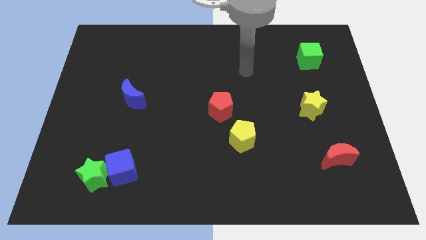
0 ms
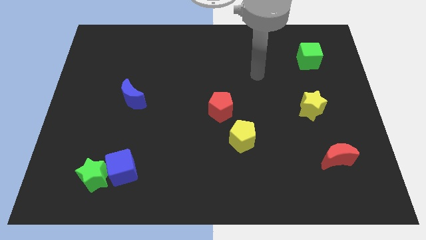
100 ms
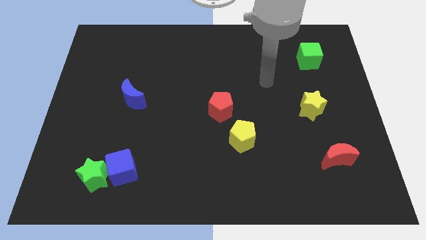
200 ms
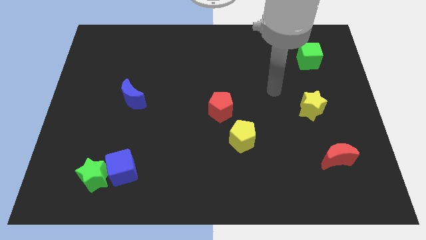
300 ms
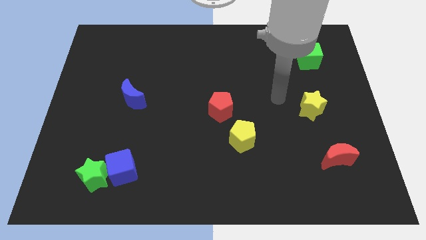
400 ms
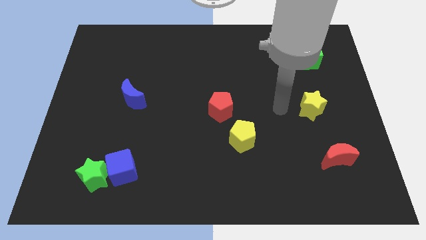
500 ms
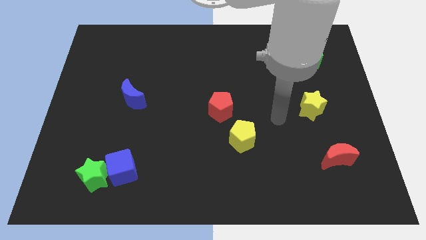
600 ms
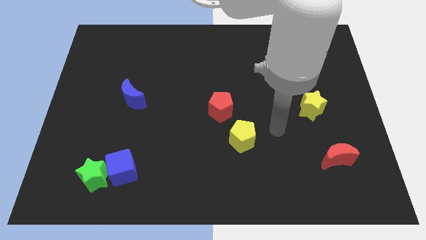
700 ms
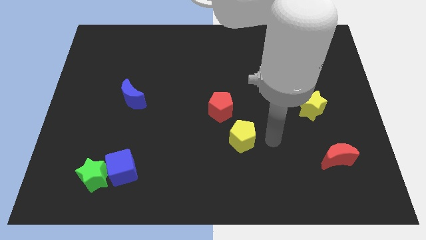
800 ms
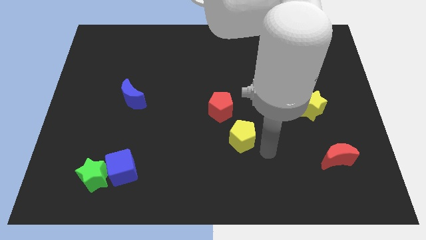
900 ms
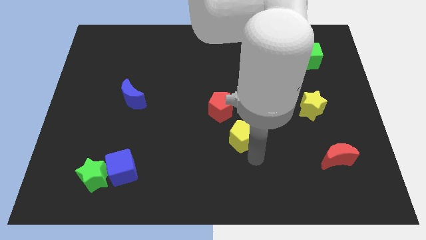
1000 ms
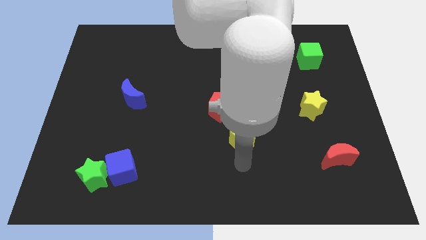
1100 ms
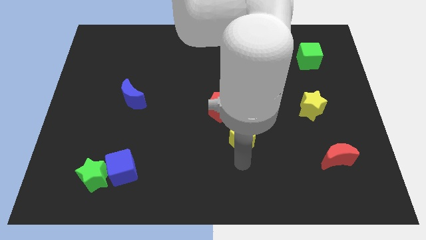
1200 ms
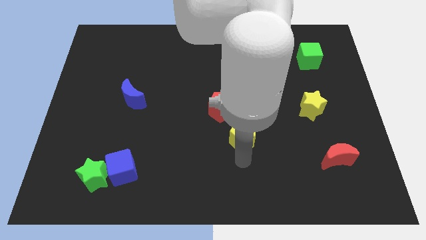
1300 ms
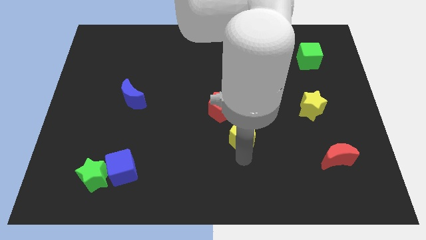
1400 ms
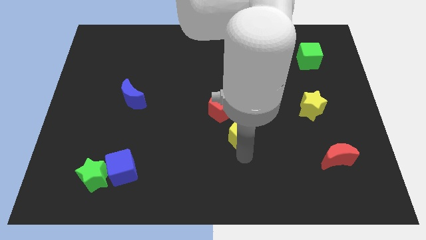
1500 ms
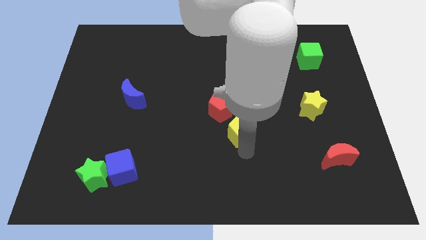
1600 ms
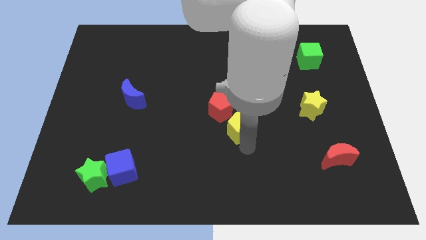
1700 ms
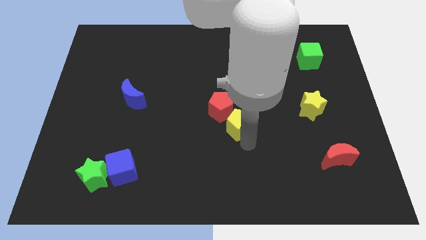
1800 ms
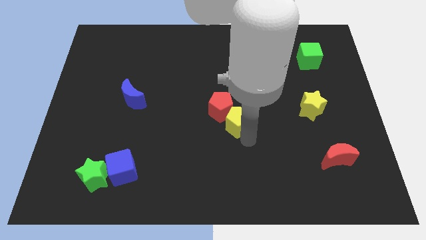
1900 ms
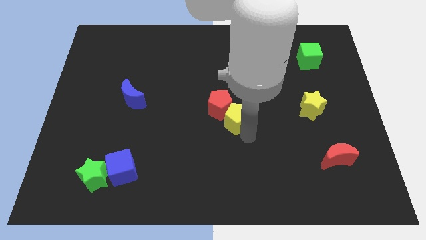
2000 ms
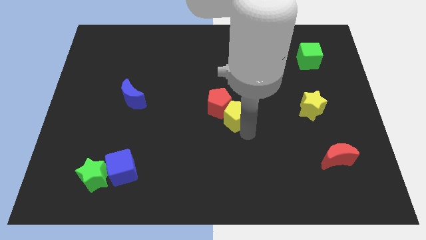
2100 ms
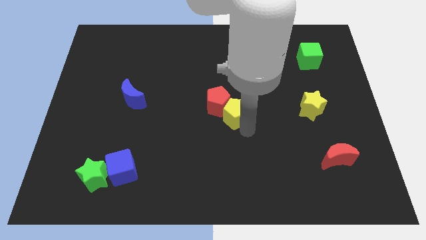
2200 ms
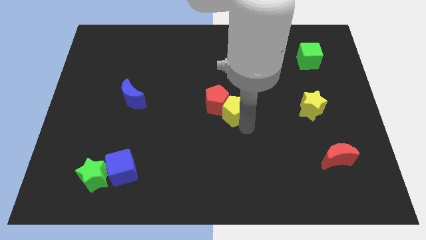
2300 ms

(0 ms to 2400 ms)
move the yellow pentagon upwards a little bit

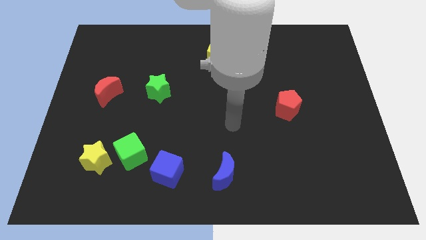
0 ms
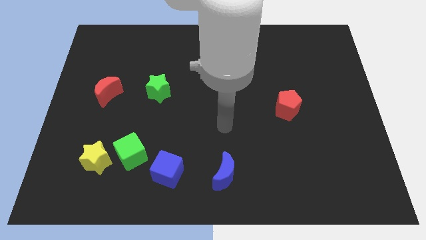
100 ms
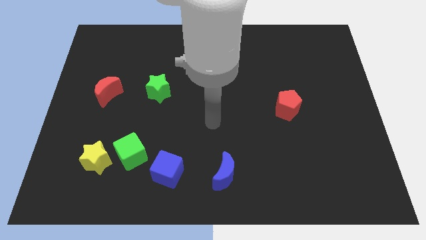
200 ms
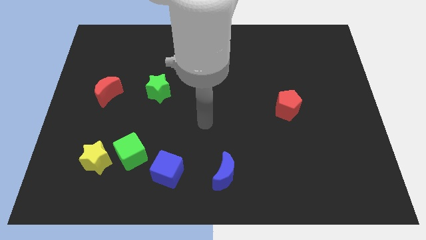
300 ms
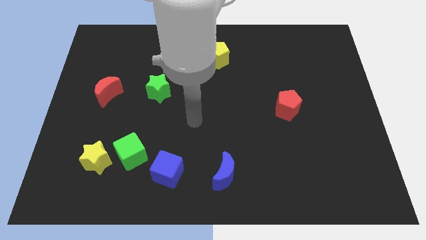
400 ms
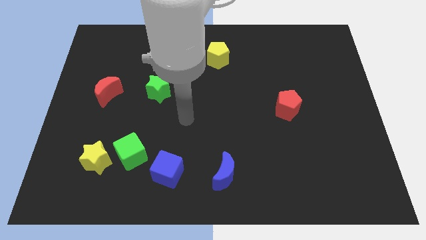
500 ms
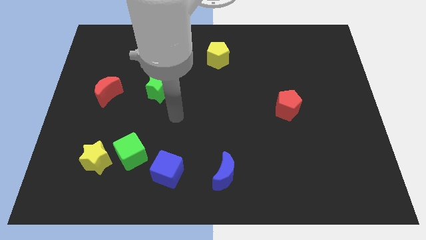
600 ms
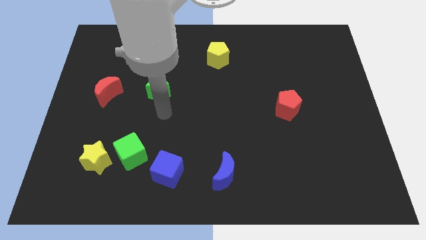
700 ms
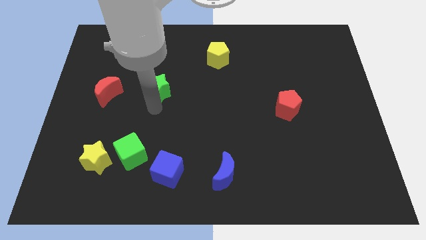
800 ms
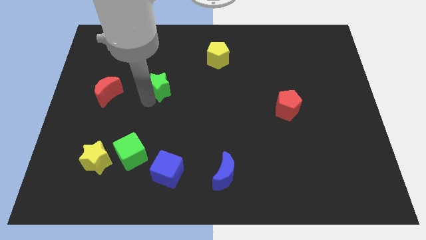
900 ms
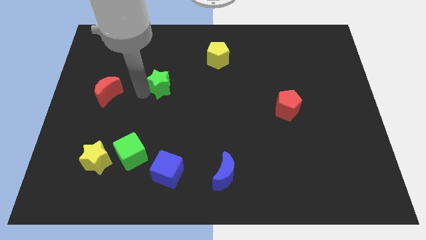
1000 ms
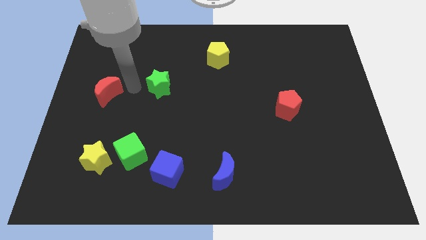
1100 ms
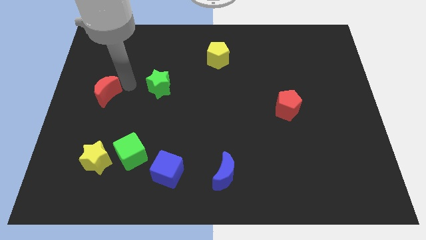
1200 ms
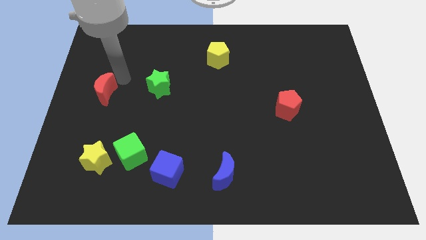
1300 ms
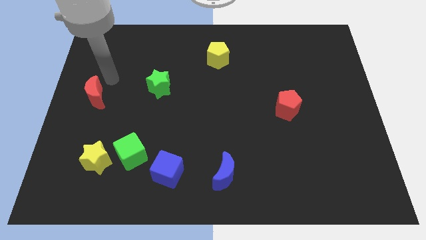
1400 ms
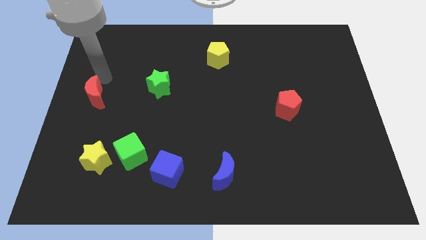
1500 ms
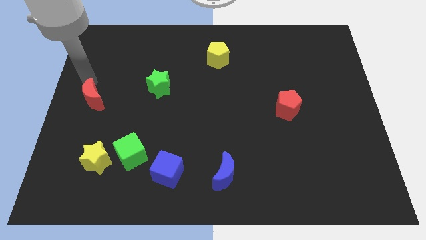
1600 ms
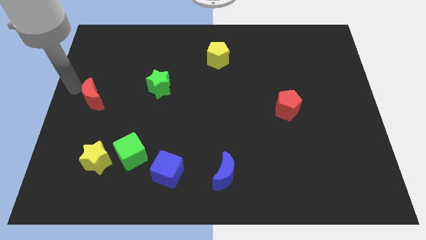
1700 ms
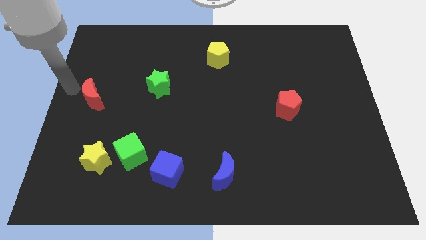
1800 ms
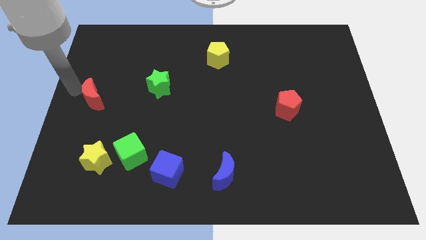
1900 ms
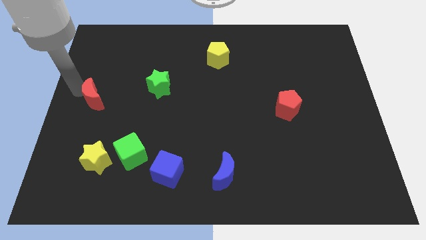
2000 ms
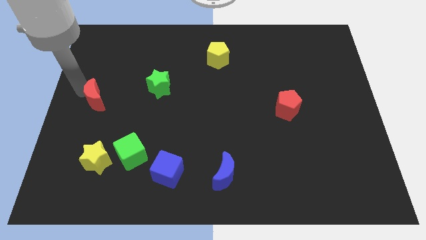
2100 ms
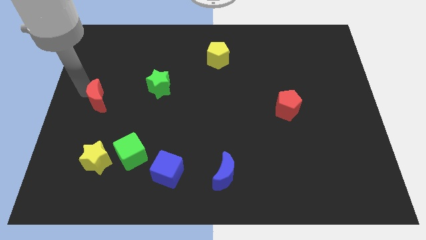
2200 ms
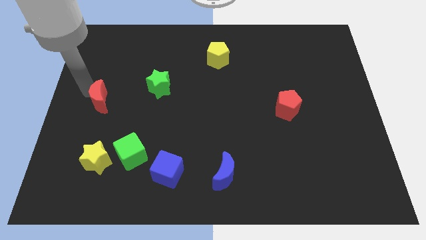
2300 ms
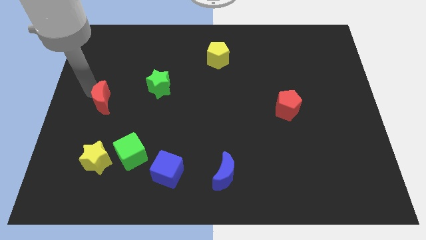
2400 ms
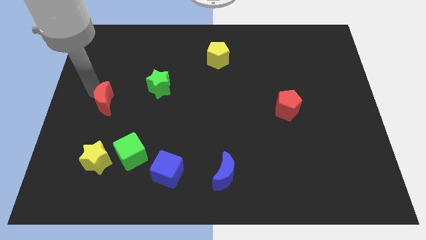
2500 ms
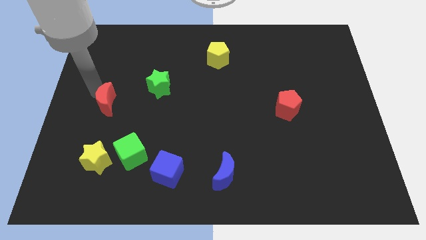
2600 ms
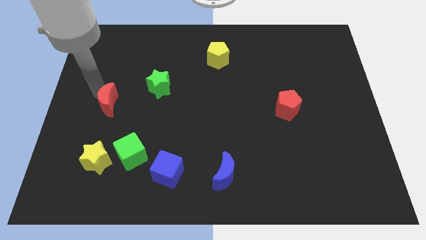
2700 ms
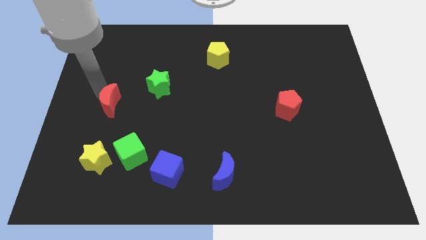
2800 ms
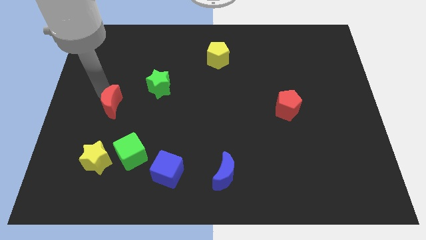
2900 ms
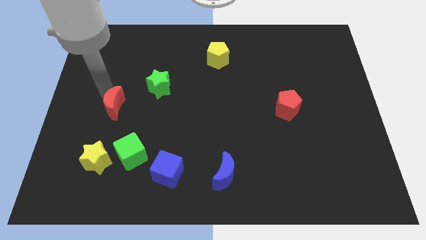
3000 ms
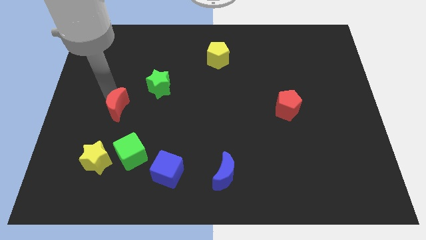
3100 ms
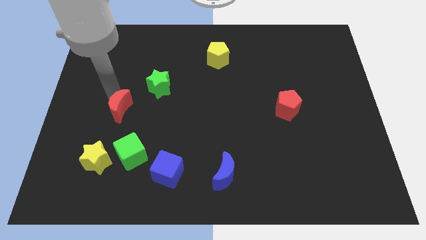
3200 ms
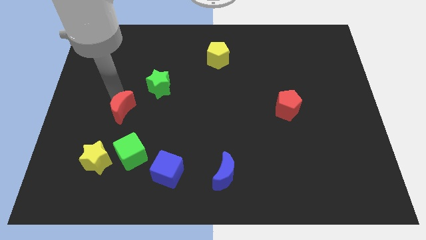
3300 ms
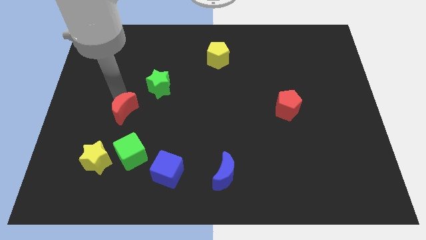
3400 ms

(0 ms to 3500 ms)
push the red moon slightly diagonally downwards and to the right

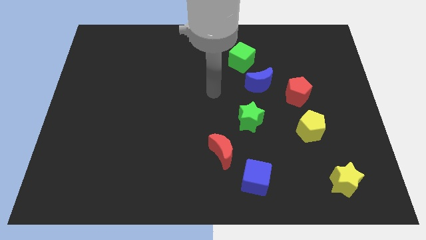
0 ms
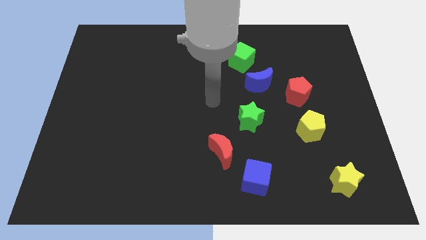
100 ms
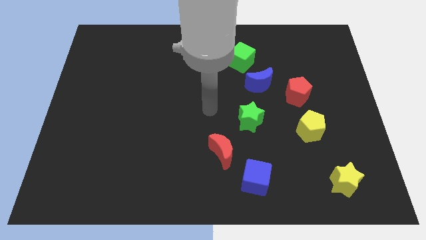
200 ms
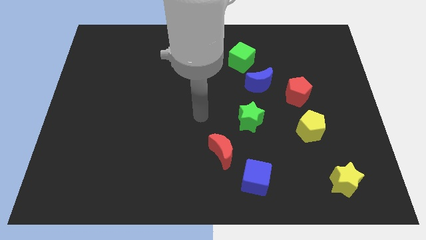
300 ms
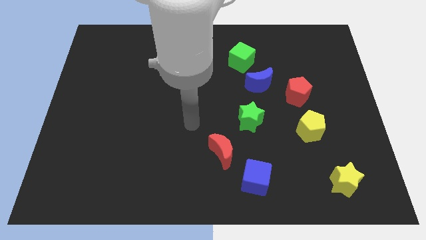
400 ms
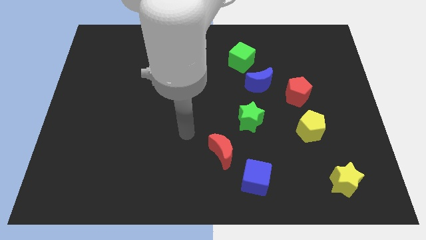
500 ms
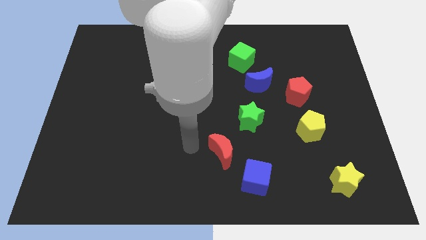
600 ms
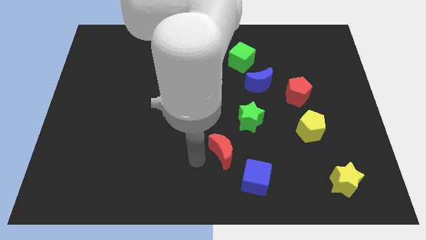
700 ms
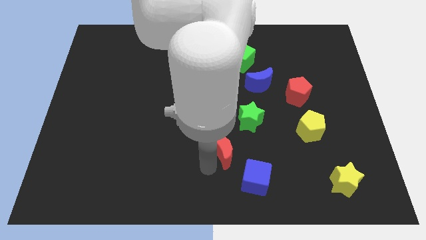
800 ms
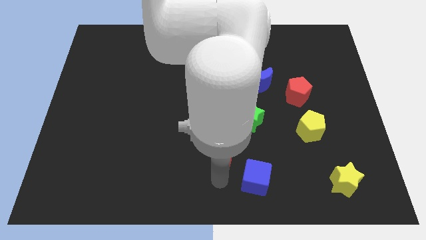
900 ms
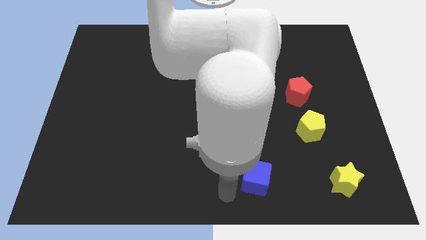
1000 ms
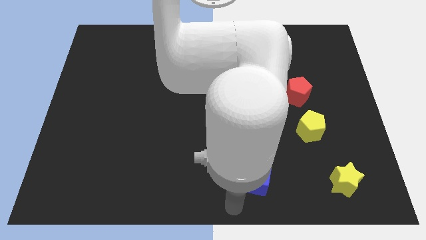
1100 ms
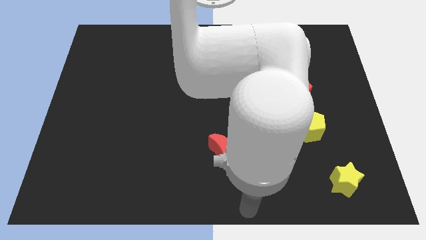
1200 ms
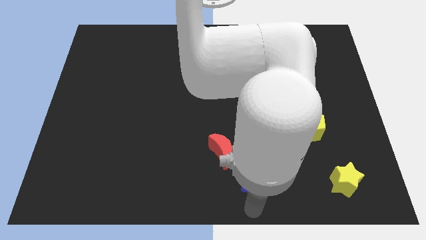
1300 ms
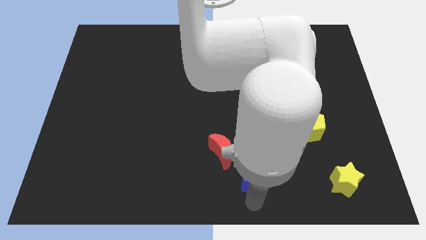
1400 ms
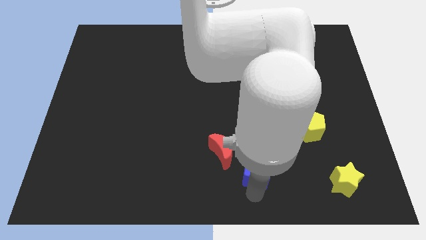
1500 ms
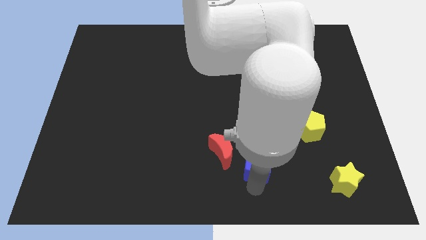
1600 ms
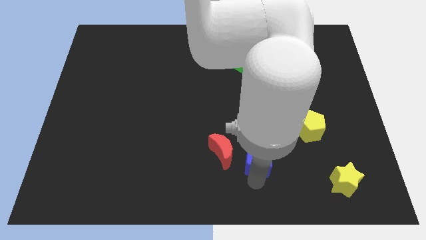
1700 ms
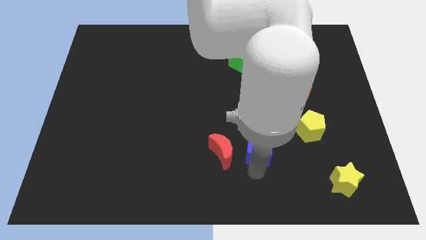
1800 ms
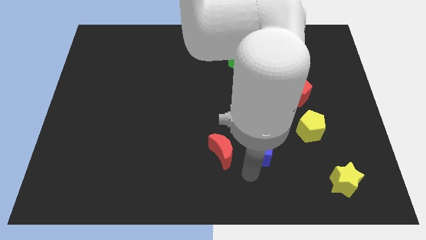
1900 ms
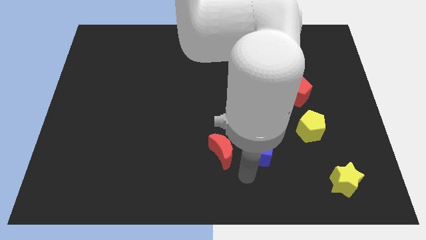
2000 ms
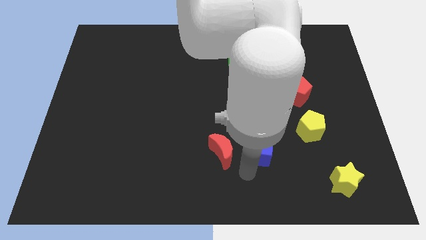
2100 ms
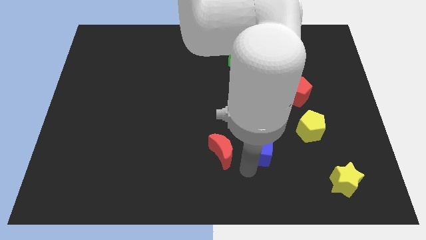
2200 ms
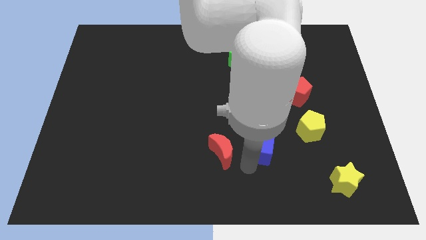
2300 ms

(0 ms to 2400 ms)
slightly move the blue cube upwards

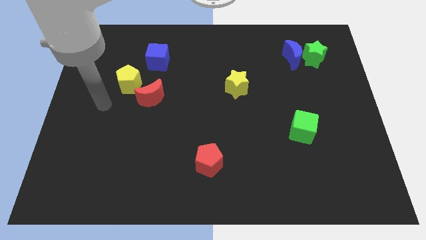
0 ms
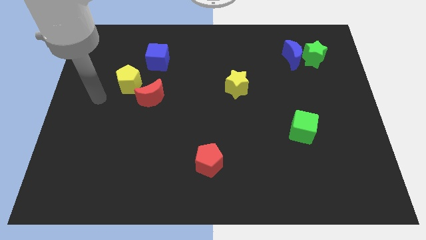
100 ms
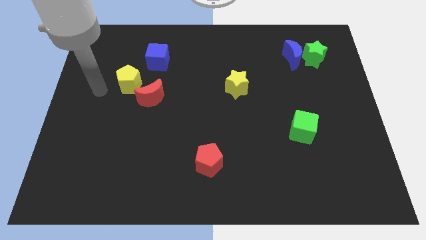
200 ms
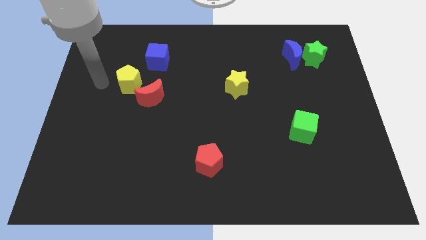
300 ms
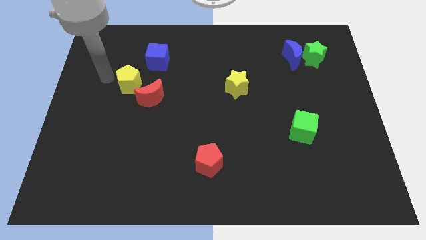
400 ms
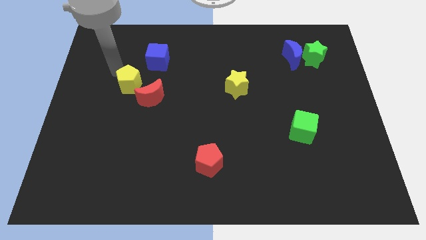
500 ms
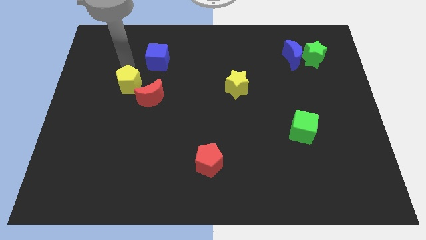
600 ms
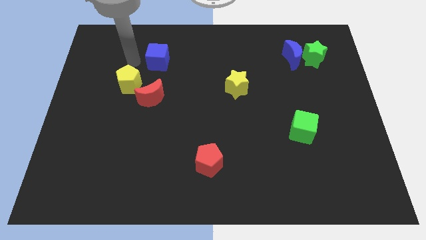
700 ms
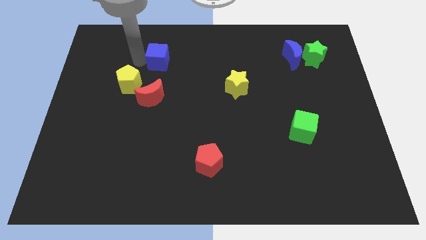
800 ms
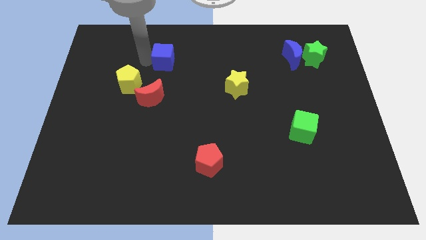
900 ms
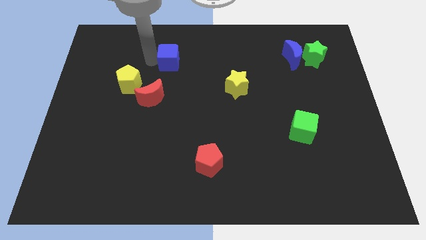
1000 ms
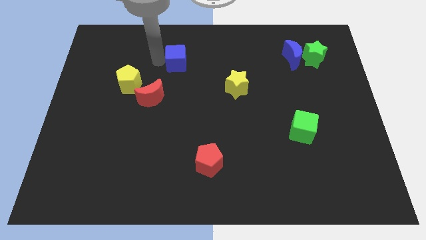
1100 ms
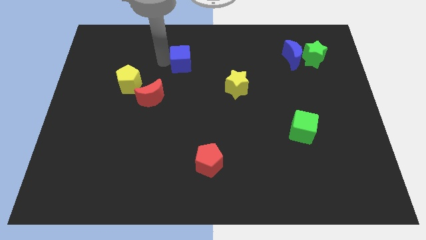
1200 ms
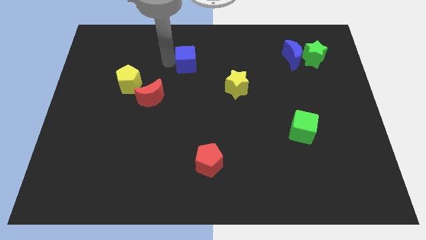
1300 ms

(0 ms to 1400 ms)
slightly move the blue cube to the right
